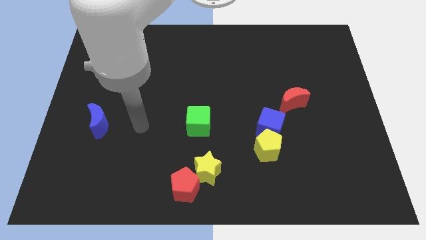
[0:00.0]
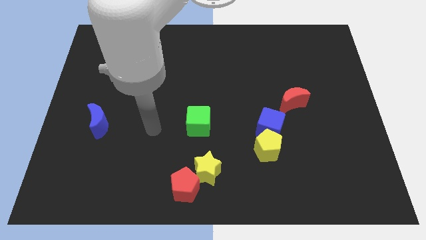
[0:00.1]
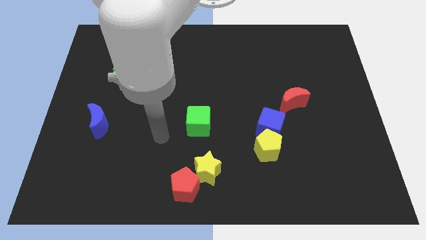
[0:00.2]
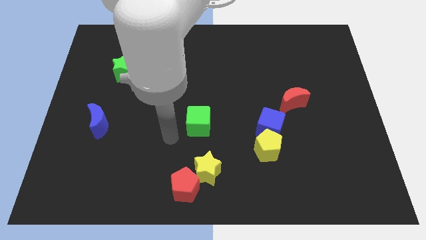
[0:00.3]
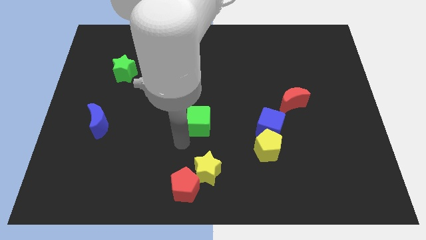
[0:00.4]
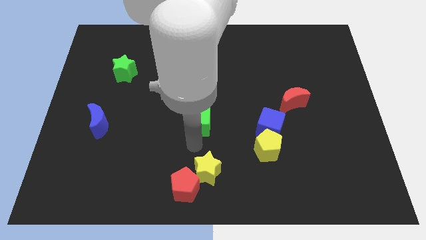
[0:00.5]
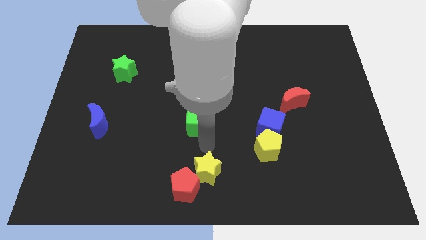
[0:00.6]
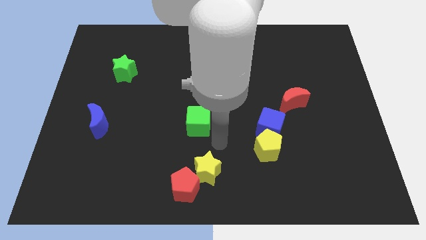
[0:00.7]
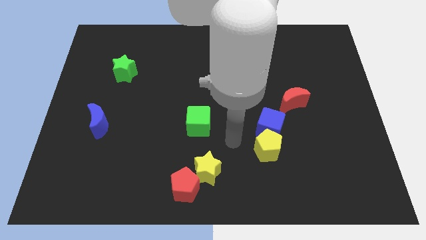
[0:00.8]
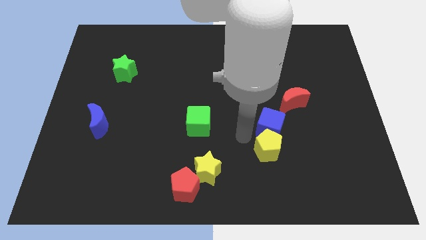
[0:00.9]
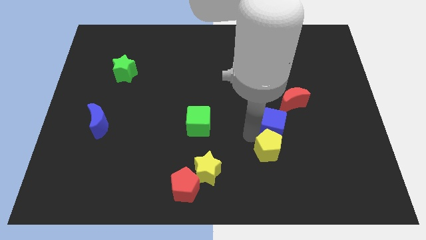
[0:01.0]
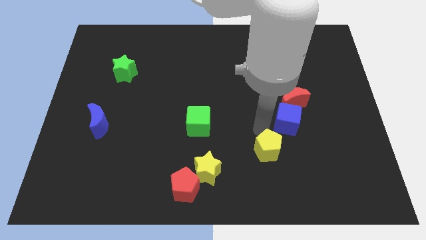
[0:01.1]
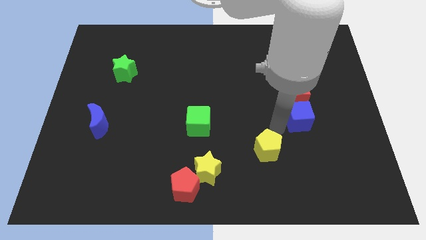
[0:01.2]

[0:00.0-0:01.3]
separate the yellow pentagon from the blue cube

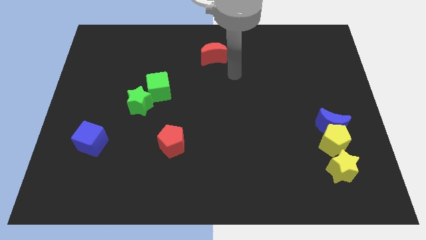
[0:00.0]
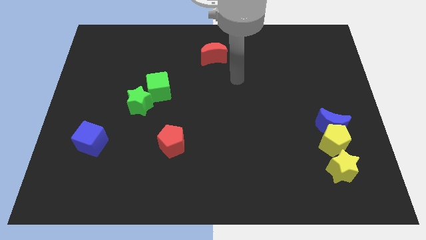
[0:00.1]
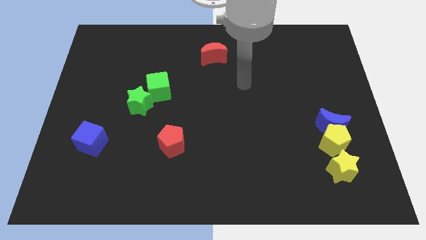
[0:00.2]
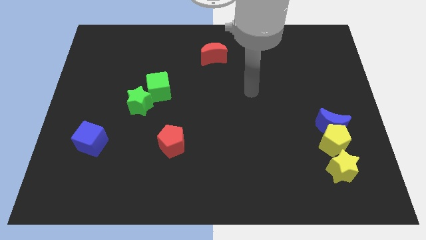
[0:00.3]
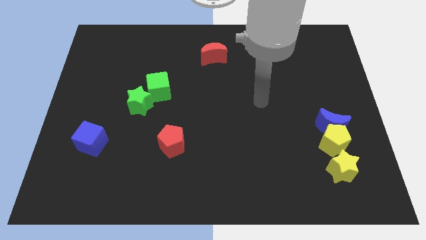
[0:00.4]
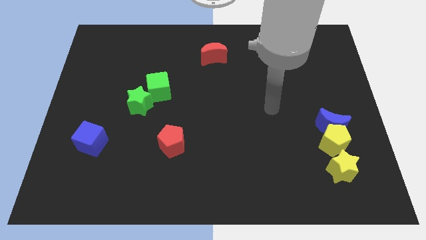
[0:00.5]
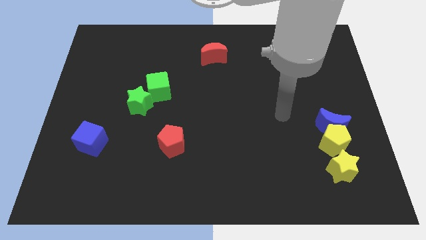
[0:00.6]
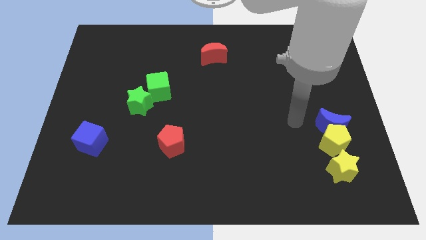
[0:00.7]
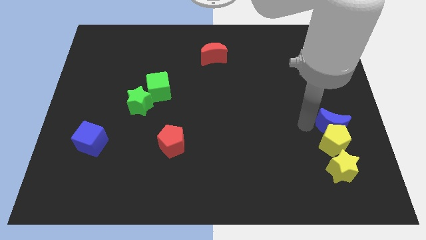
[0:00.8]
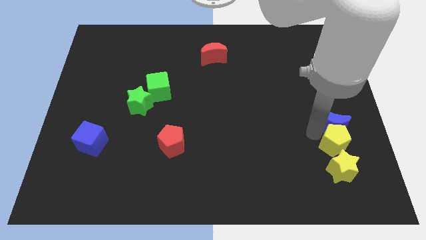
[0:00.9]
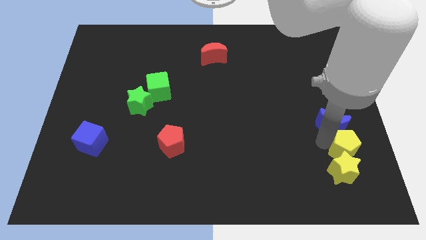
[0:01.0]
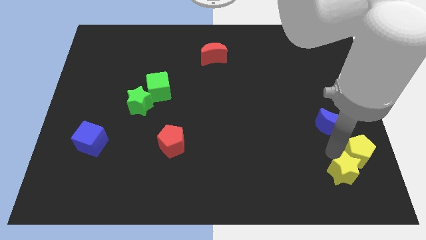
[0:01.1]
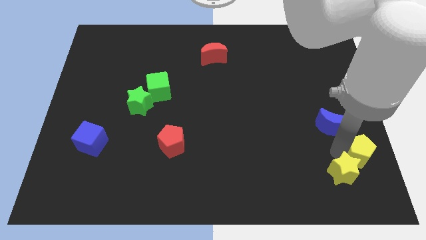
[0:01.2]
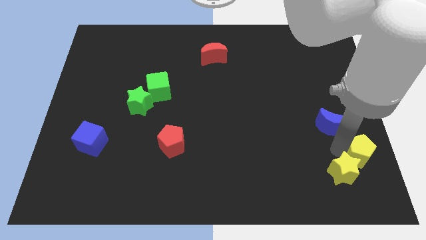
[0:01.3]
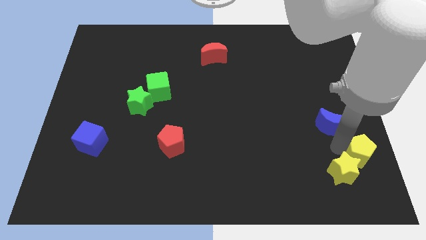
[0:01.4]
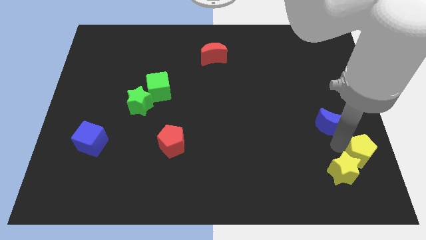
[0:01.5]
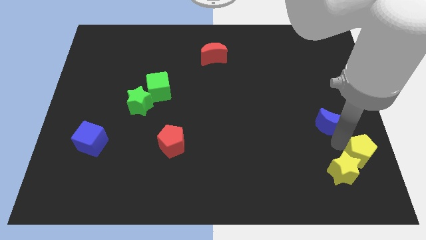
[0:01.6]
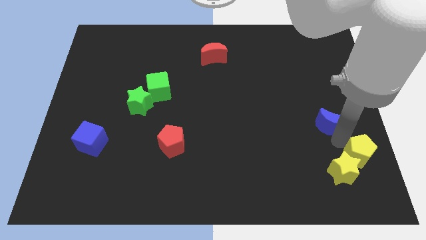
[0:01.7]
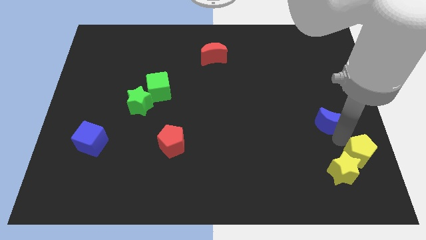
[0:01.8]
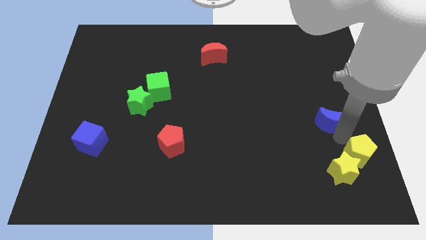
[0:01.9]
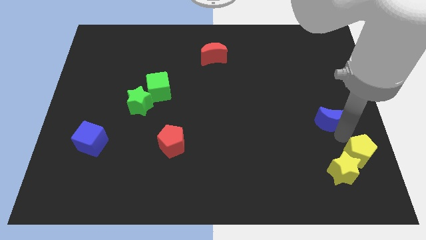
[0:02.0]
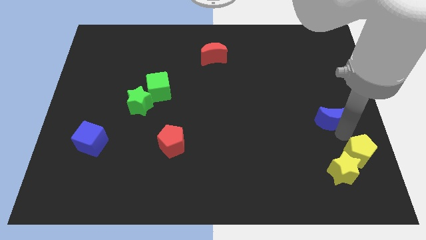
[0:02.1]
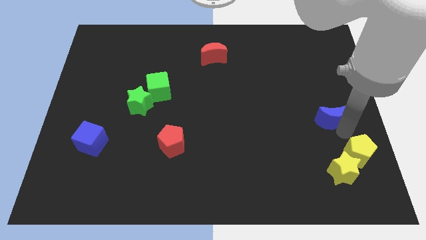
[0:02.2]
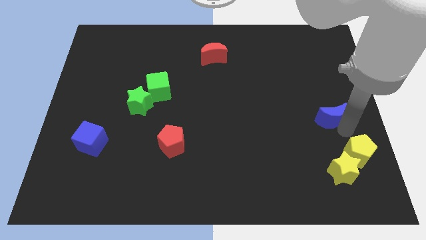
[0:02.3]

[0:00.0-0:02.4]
pull the blue moon apart from the yellow pentagon

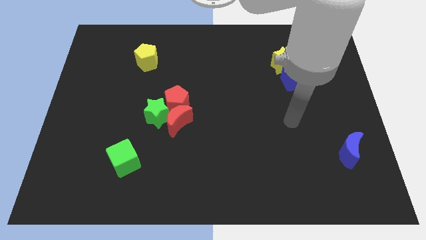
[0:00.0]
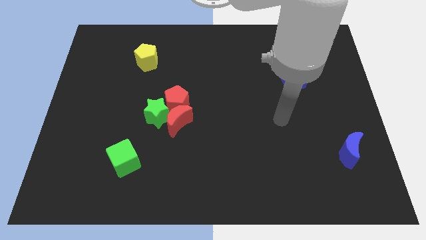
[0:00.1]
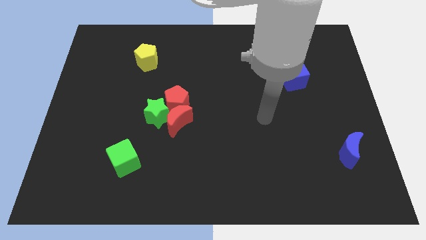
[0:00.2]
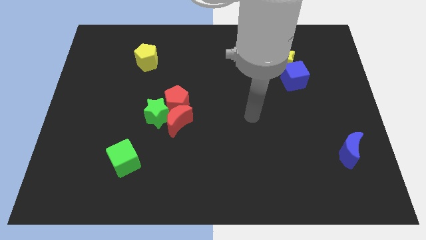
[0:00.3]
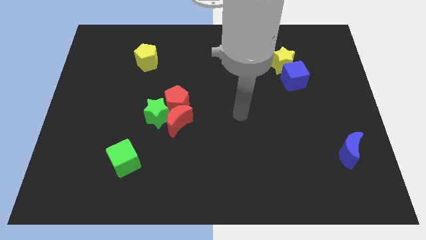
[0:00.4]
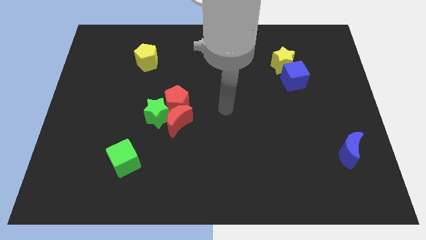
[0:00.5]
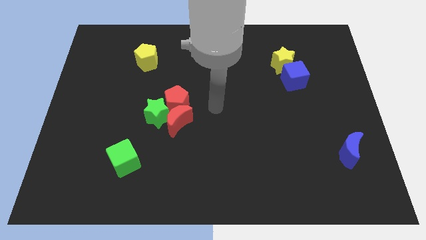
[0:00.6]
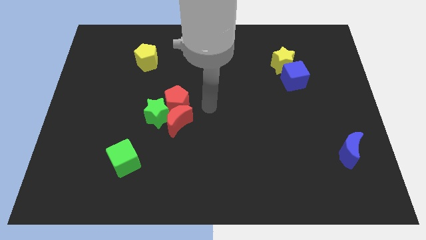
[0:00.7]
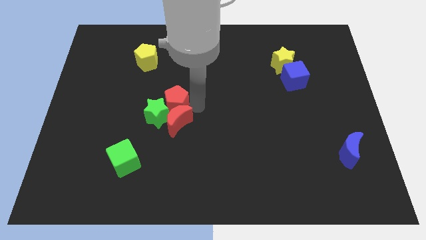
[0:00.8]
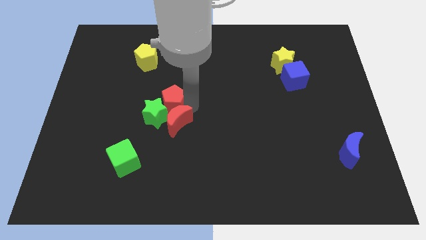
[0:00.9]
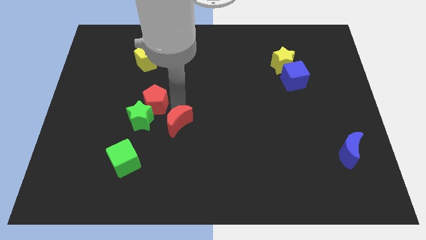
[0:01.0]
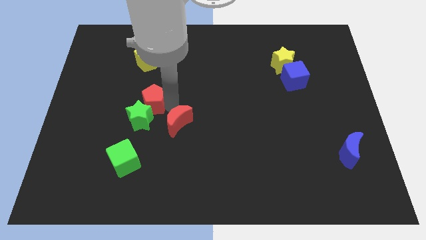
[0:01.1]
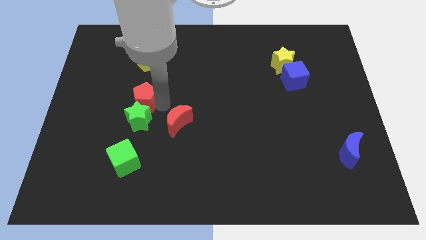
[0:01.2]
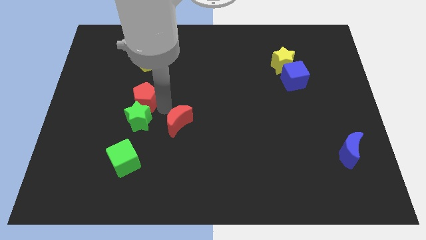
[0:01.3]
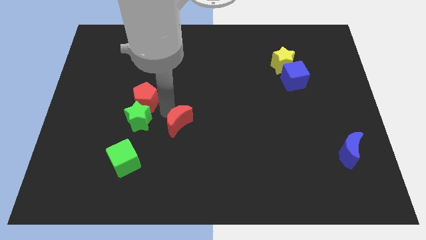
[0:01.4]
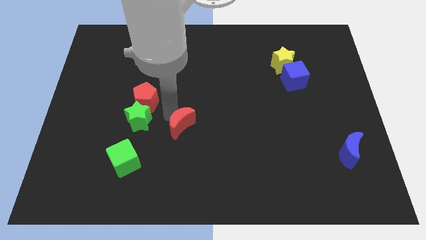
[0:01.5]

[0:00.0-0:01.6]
separate the red moon from the red pentagon and green star

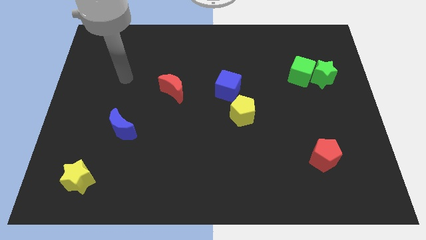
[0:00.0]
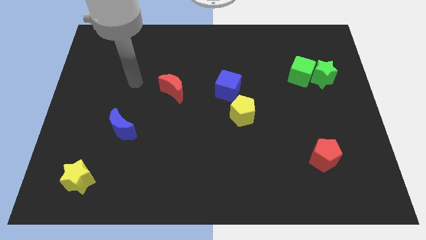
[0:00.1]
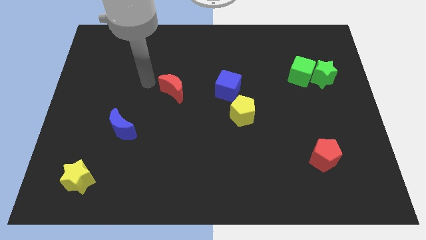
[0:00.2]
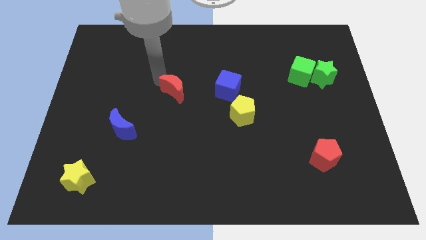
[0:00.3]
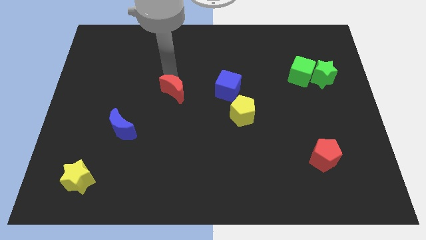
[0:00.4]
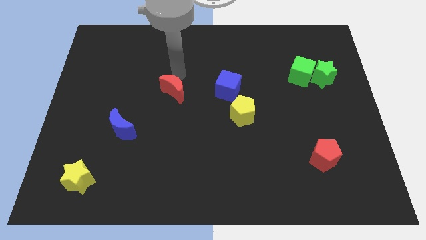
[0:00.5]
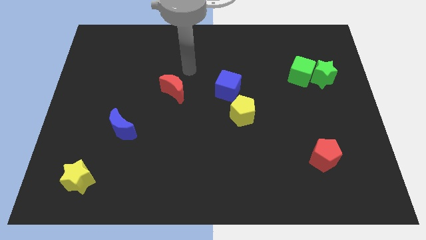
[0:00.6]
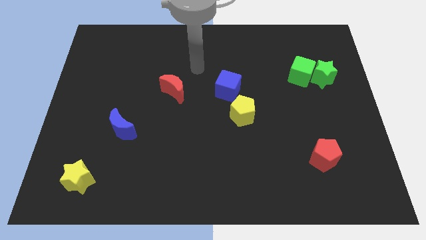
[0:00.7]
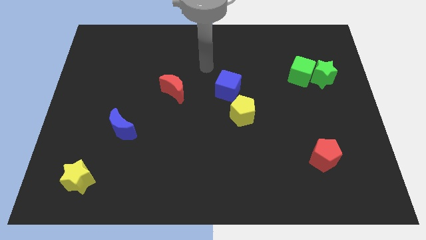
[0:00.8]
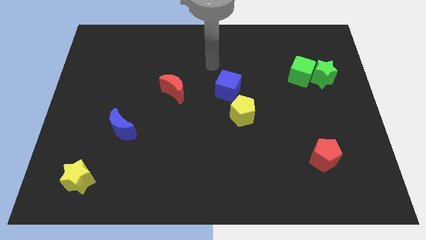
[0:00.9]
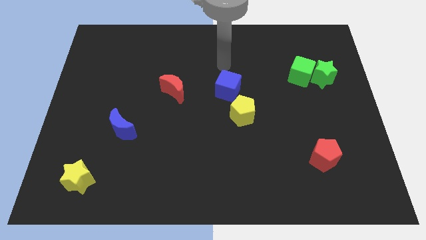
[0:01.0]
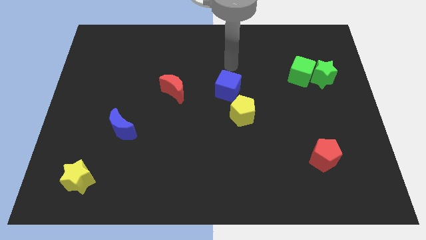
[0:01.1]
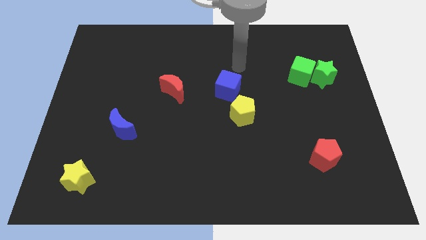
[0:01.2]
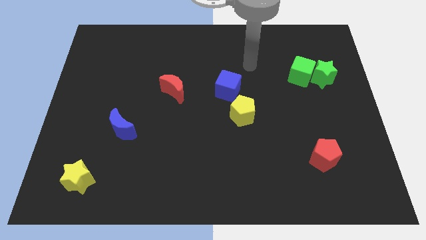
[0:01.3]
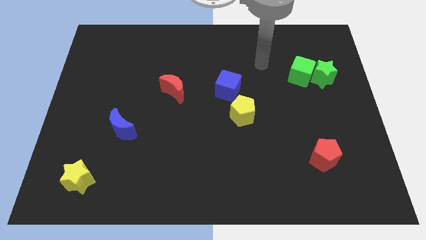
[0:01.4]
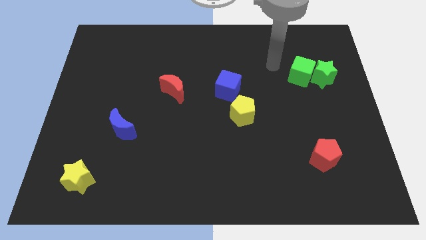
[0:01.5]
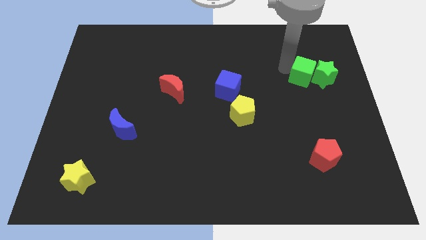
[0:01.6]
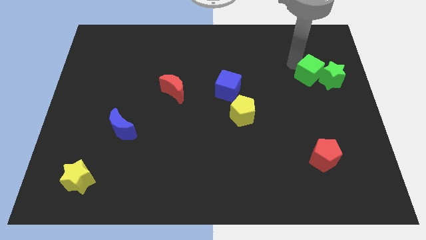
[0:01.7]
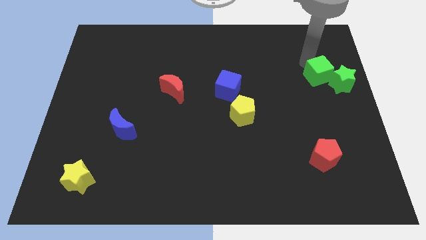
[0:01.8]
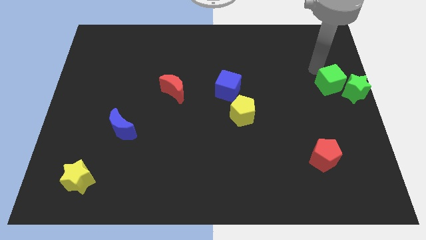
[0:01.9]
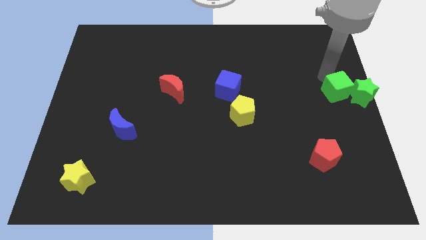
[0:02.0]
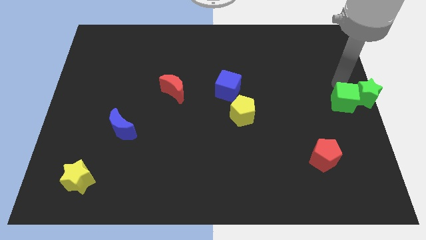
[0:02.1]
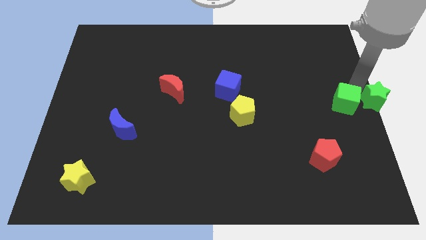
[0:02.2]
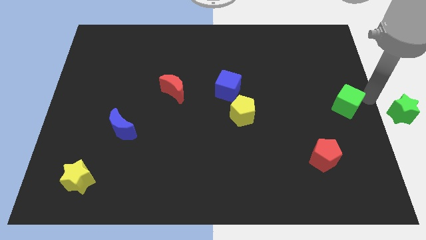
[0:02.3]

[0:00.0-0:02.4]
move the green cube away from the green star

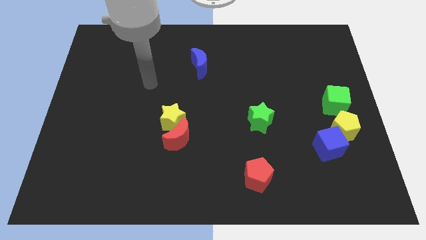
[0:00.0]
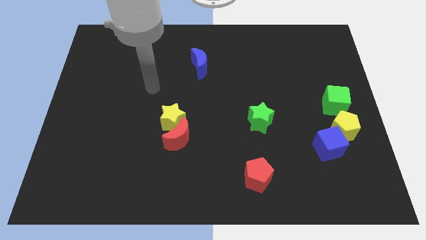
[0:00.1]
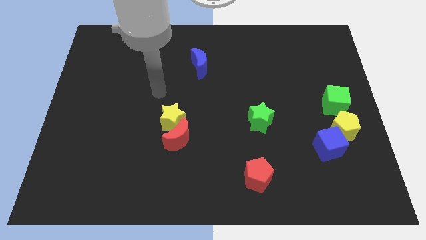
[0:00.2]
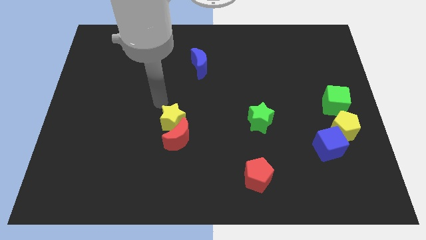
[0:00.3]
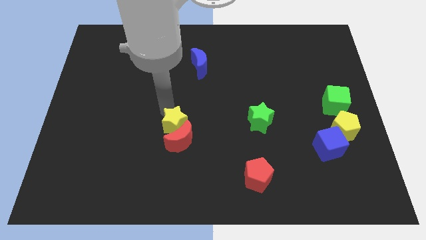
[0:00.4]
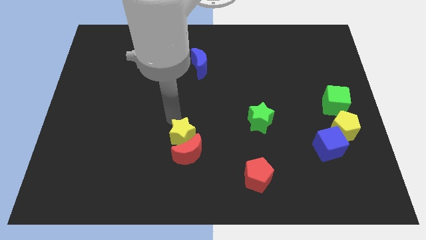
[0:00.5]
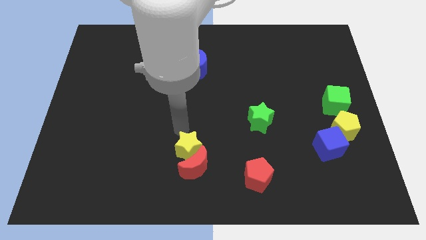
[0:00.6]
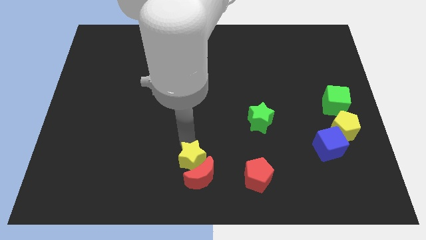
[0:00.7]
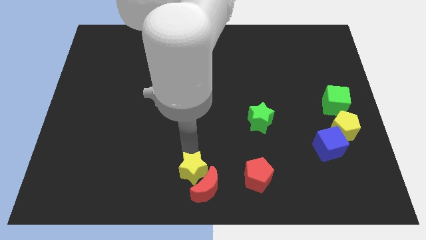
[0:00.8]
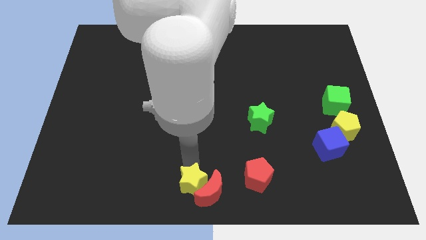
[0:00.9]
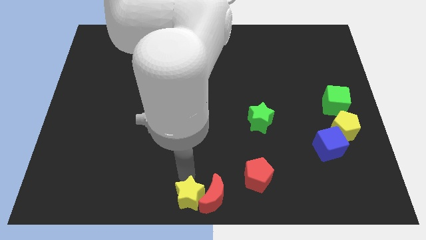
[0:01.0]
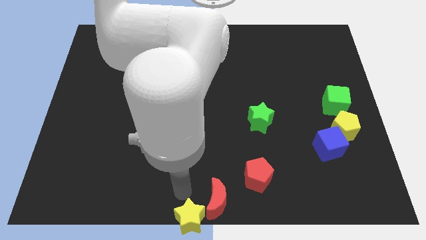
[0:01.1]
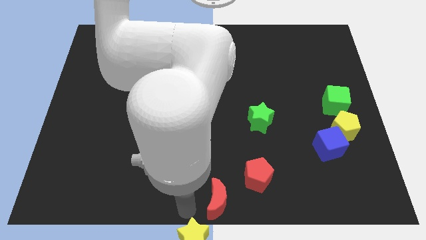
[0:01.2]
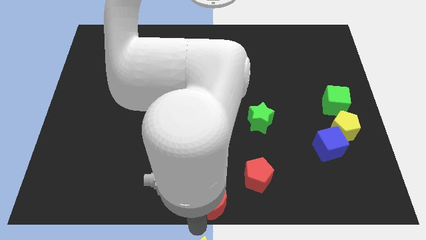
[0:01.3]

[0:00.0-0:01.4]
pull the red moon apart from the yellow star
